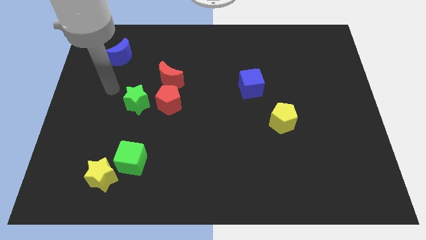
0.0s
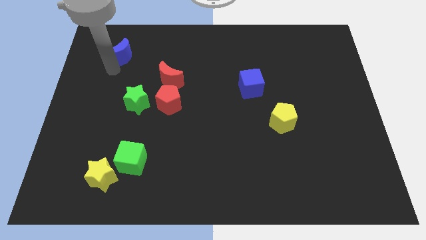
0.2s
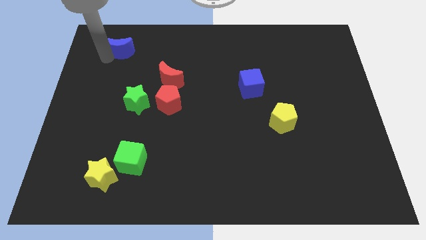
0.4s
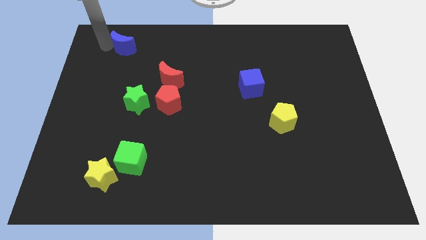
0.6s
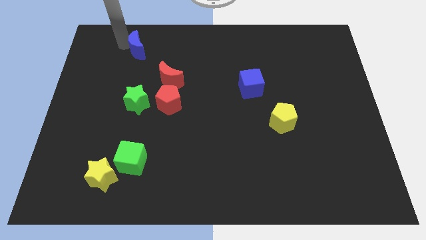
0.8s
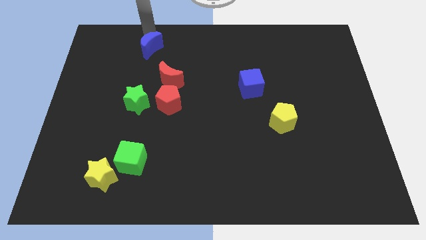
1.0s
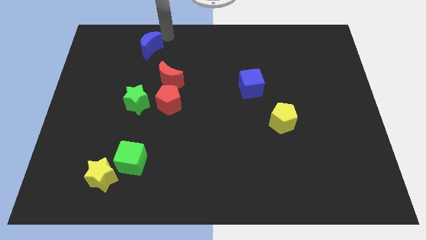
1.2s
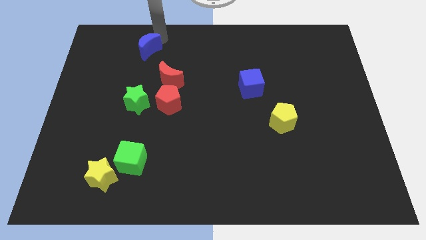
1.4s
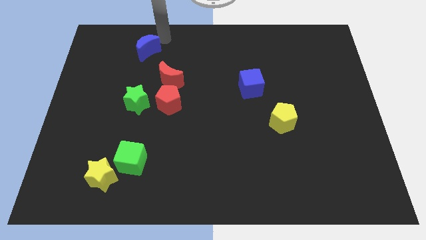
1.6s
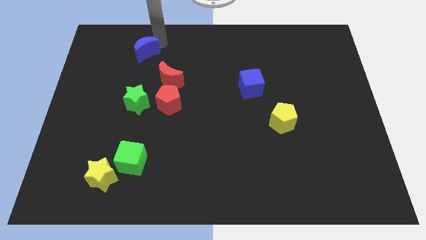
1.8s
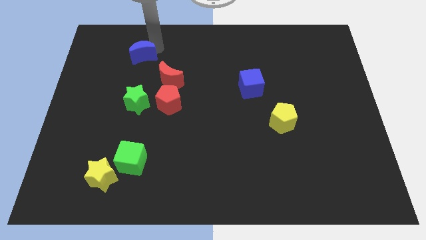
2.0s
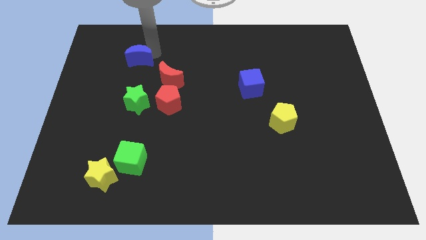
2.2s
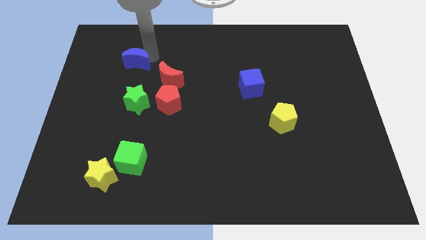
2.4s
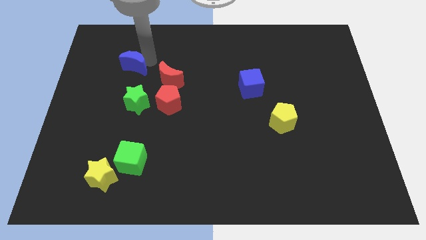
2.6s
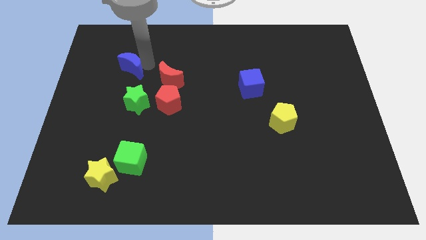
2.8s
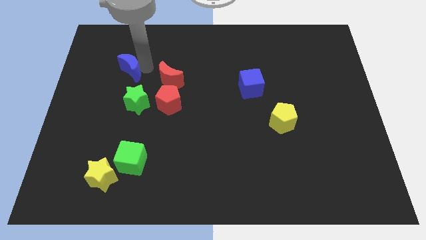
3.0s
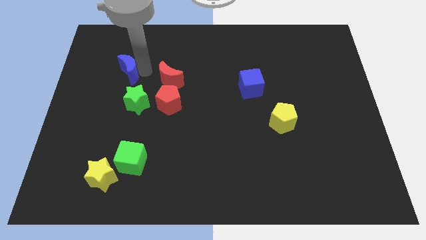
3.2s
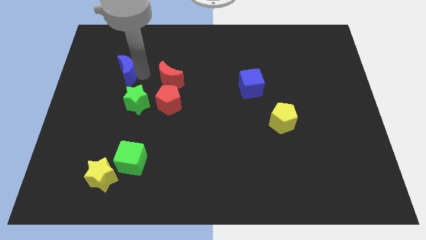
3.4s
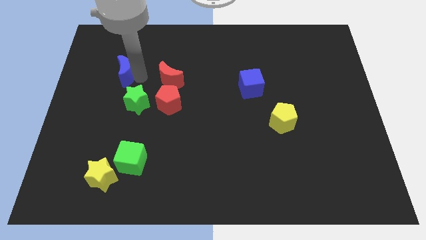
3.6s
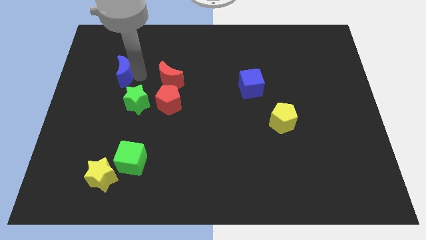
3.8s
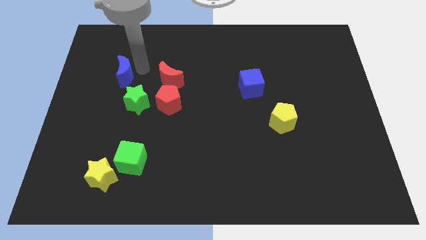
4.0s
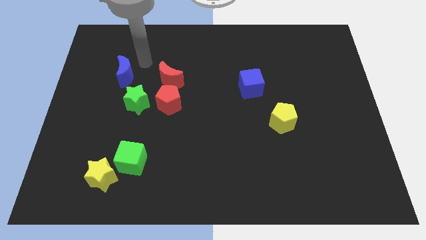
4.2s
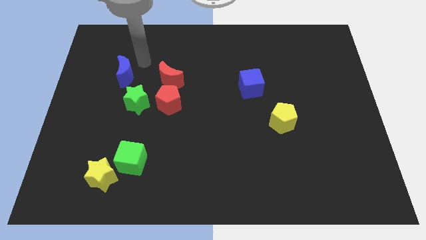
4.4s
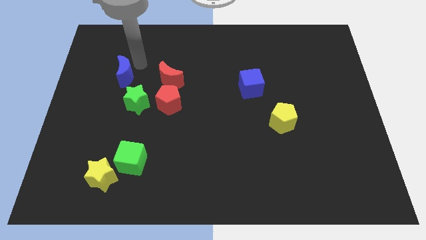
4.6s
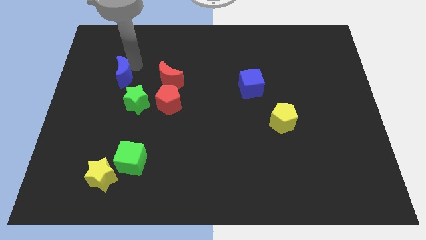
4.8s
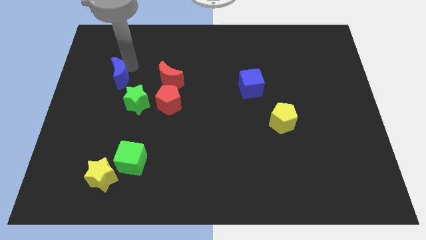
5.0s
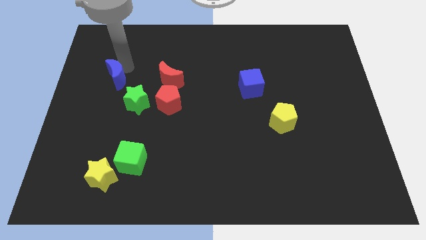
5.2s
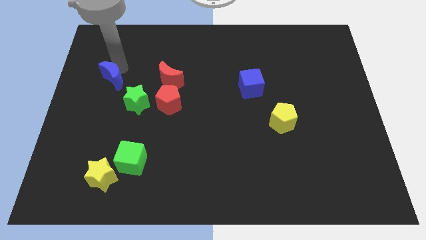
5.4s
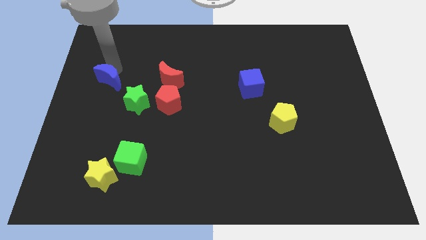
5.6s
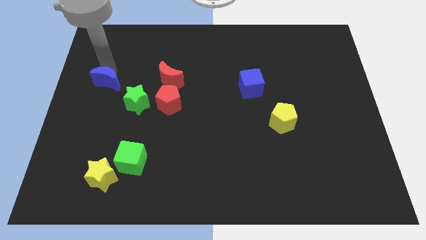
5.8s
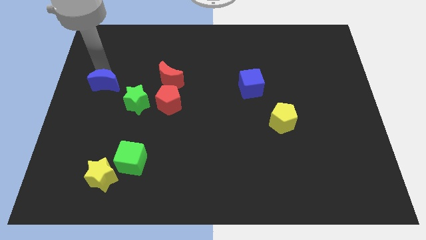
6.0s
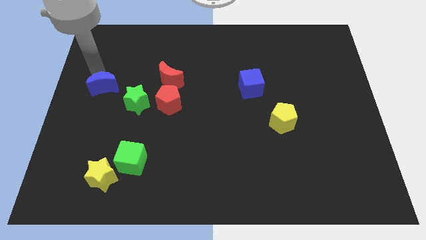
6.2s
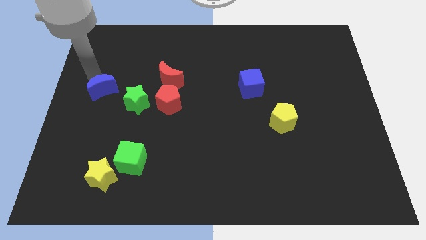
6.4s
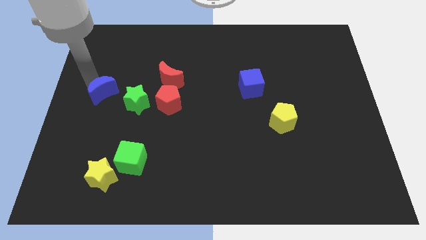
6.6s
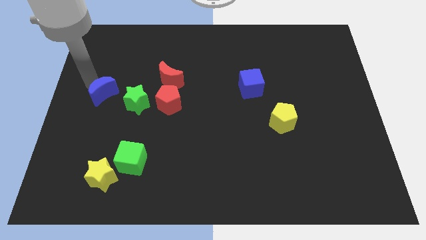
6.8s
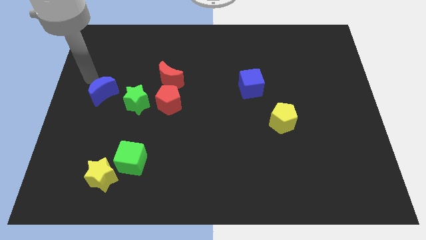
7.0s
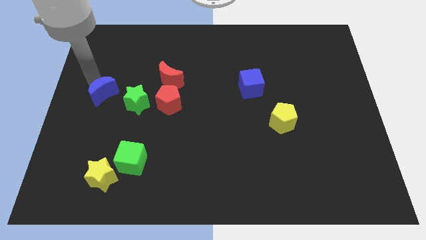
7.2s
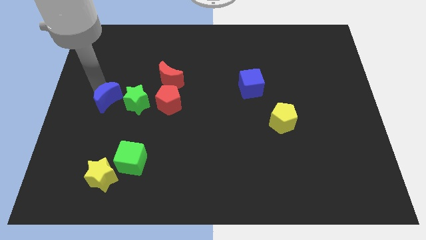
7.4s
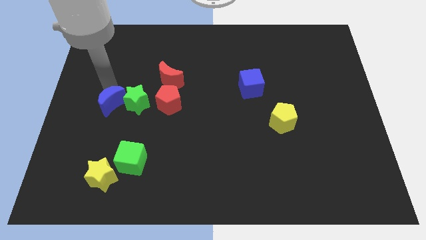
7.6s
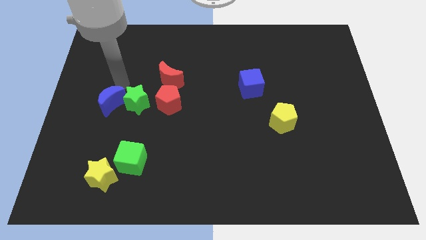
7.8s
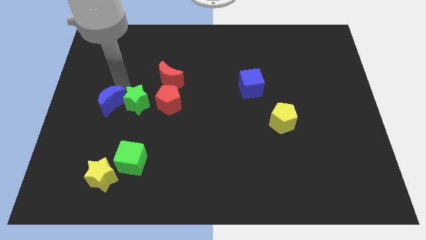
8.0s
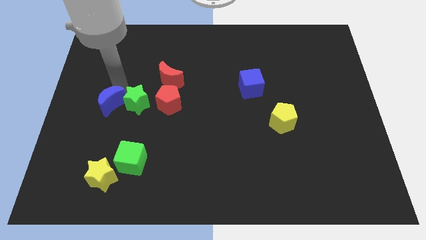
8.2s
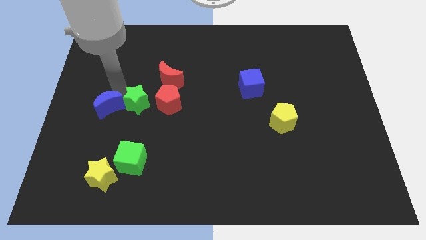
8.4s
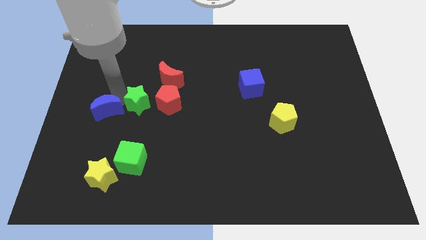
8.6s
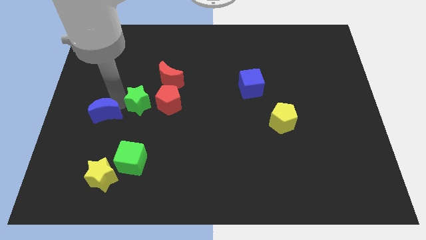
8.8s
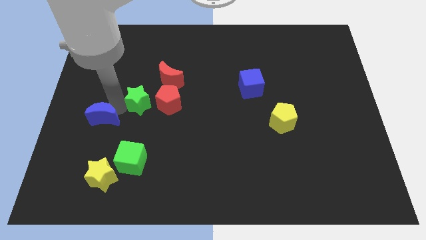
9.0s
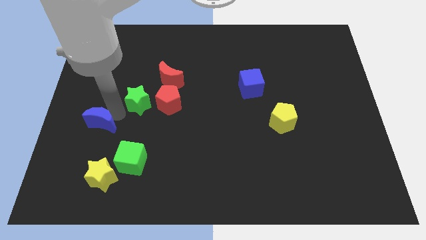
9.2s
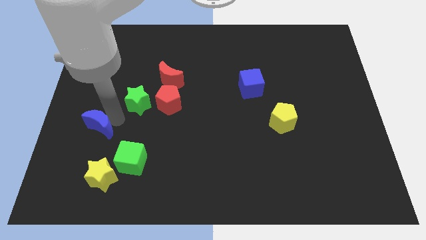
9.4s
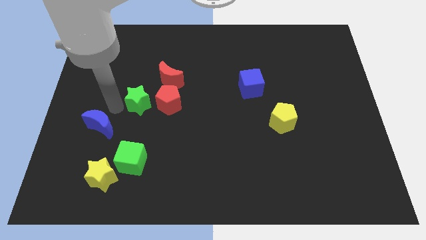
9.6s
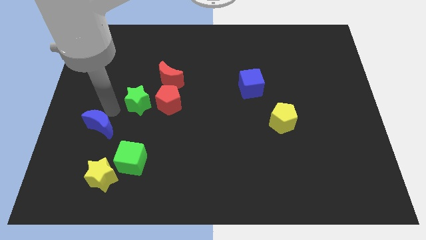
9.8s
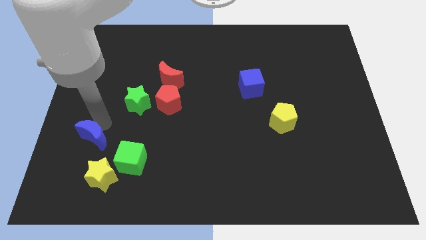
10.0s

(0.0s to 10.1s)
put the blue moon to the top left of the yellow star

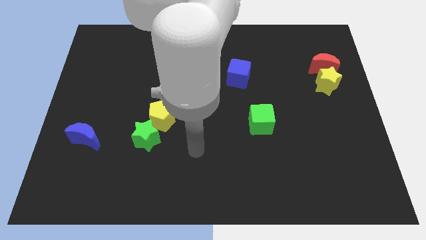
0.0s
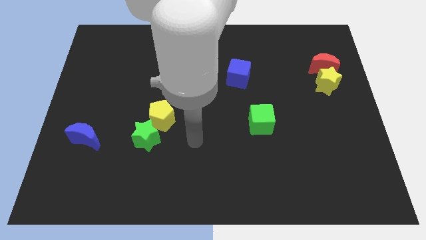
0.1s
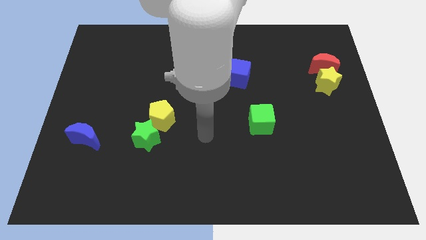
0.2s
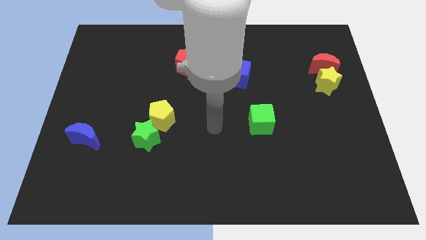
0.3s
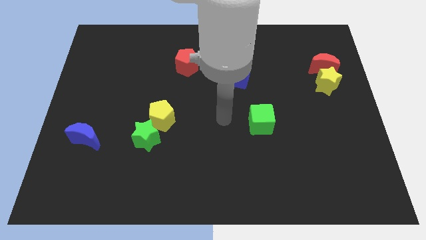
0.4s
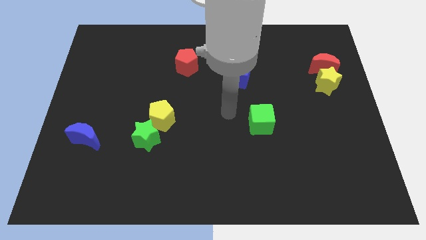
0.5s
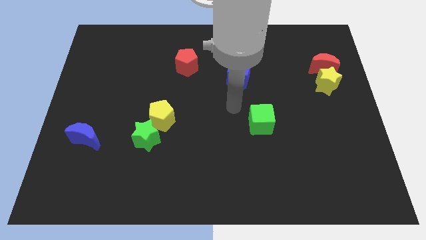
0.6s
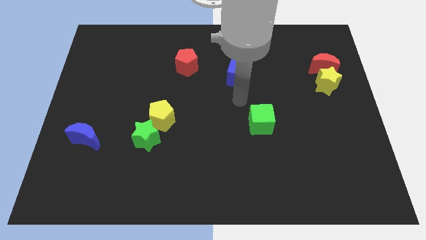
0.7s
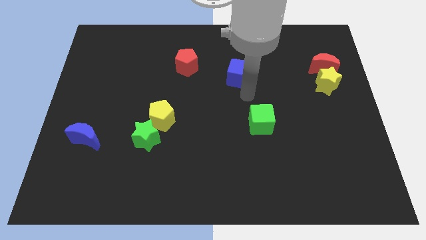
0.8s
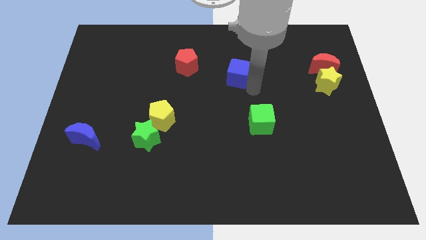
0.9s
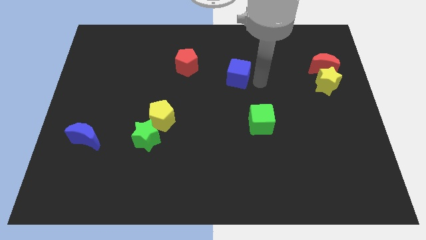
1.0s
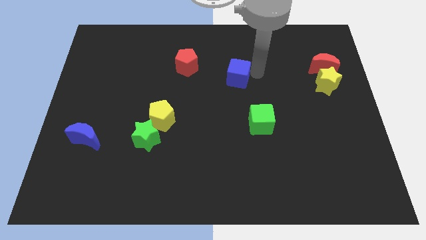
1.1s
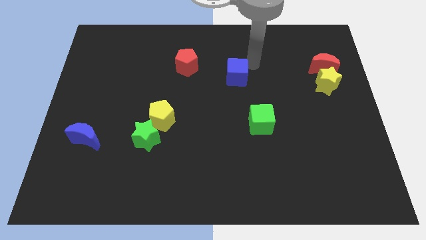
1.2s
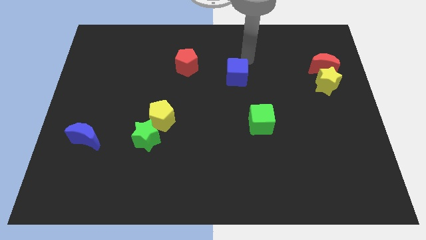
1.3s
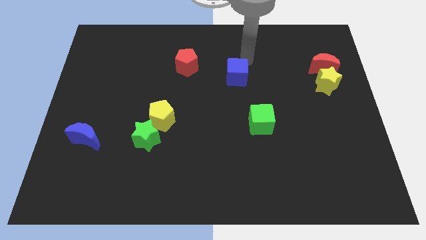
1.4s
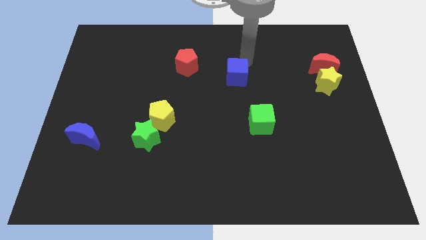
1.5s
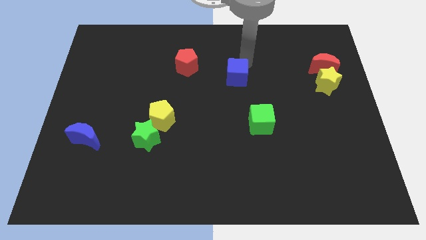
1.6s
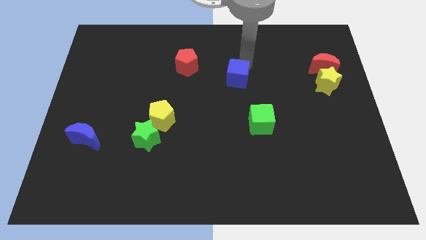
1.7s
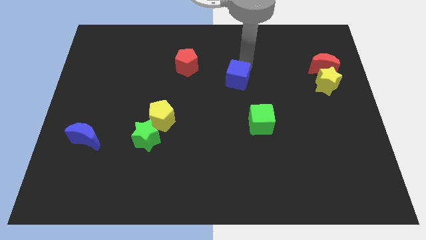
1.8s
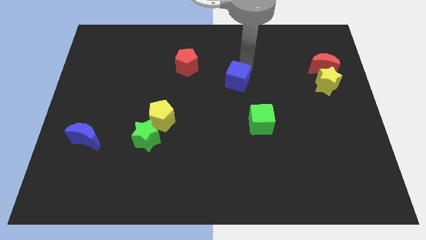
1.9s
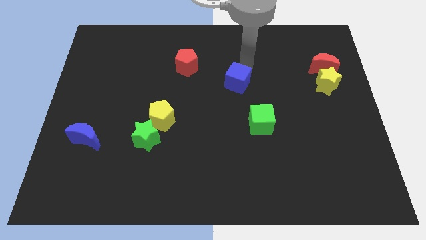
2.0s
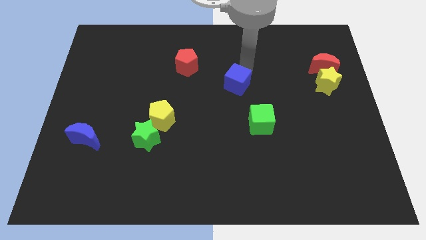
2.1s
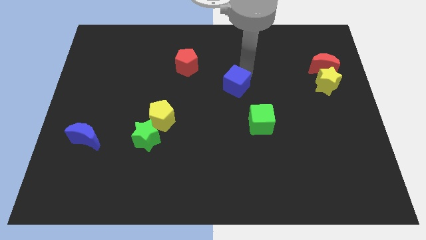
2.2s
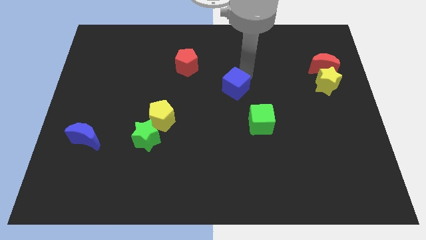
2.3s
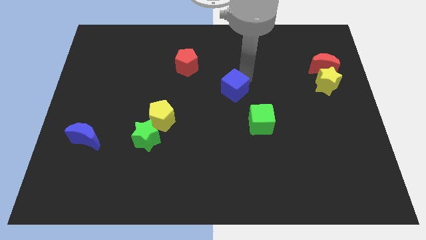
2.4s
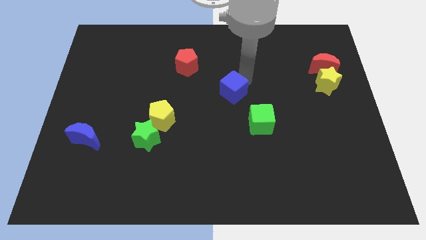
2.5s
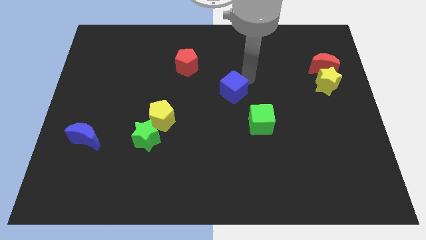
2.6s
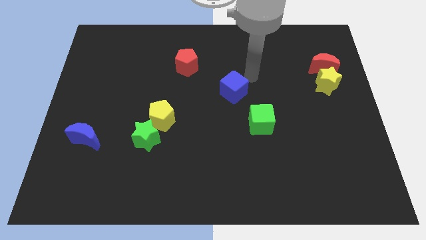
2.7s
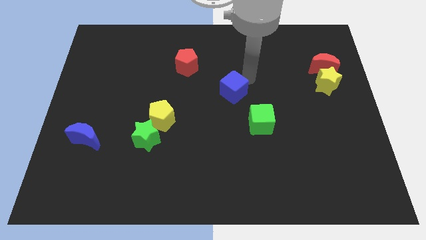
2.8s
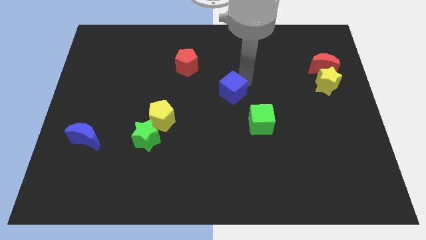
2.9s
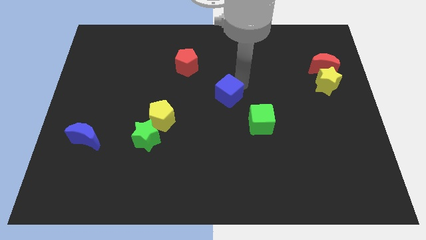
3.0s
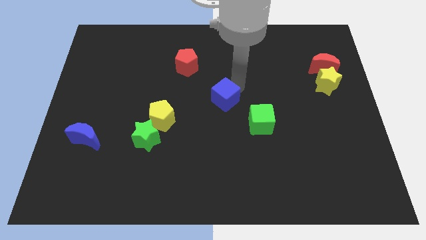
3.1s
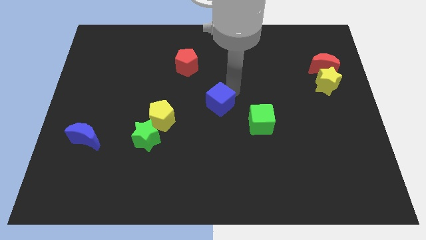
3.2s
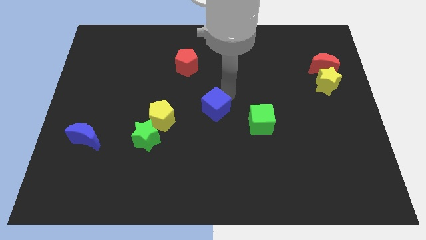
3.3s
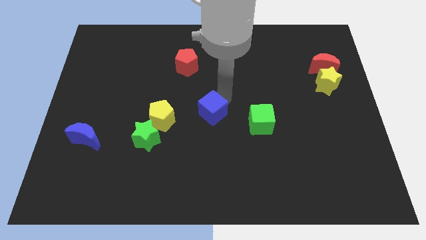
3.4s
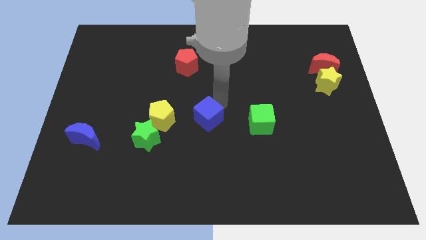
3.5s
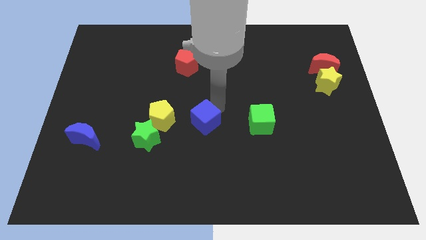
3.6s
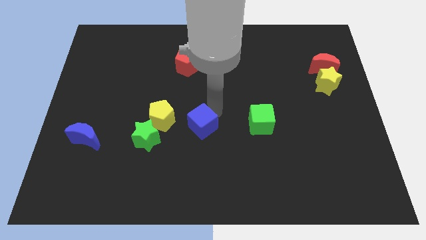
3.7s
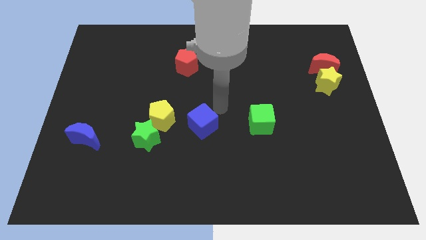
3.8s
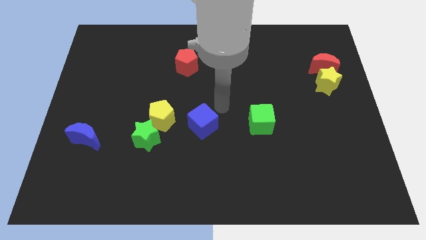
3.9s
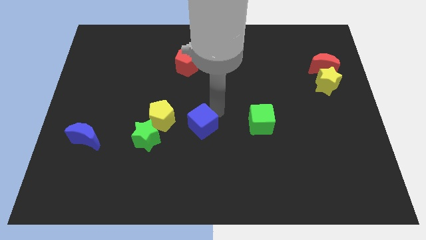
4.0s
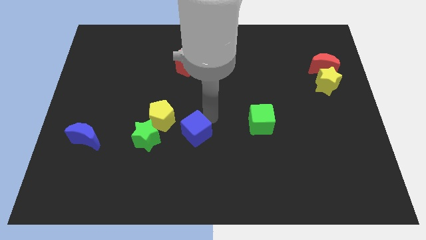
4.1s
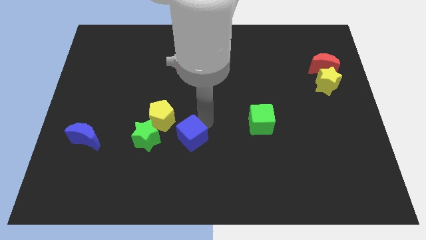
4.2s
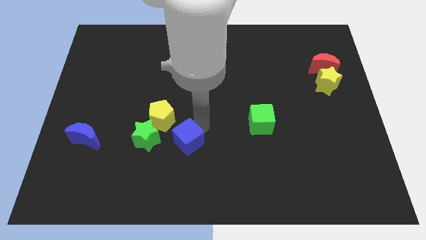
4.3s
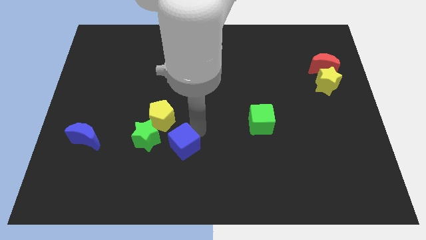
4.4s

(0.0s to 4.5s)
put the blue cube diagonally down and to the right of the green star
